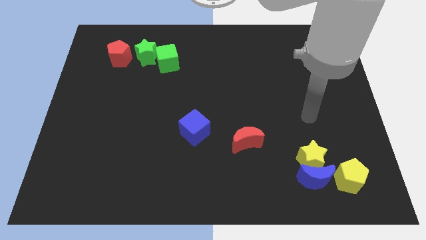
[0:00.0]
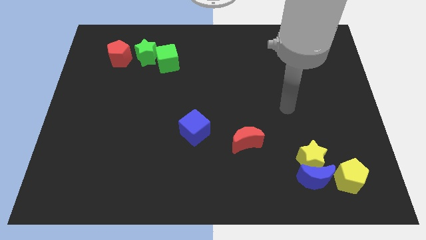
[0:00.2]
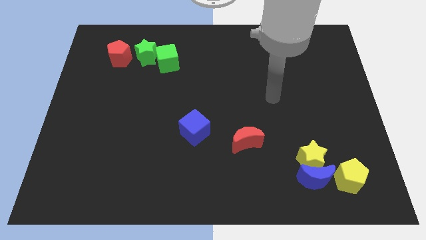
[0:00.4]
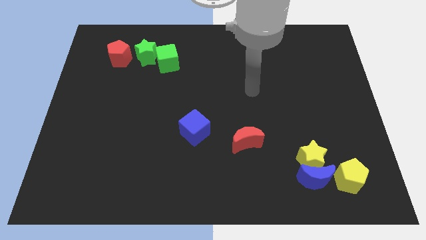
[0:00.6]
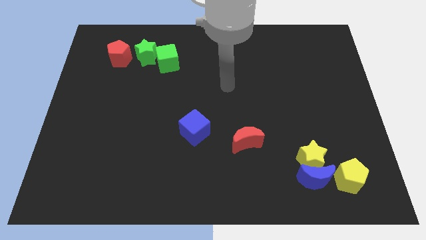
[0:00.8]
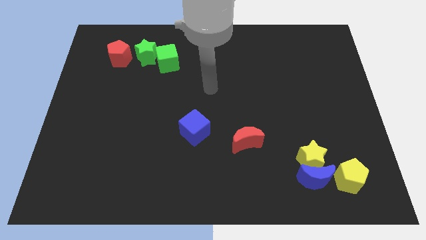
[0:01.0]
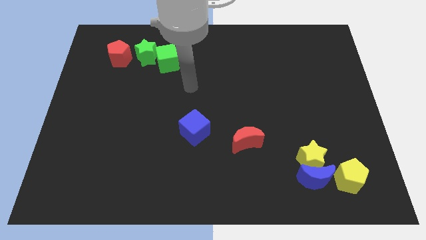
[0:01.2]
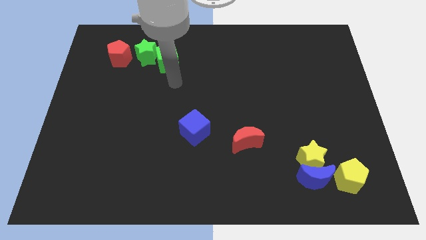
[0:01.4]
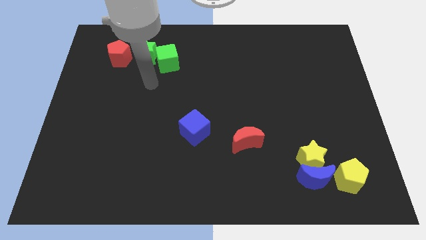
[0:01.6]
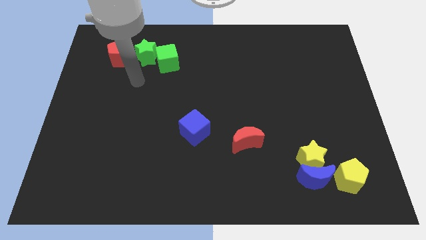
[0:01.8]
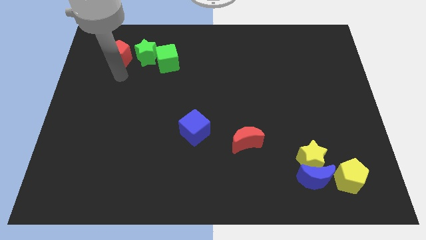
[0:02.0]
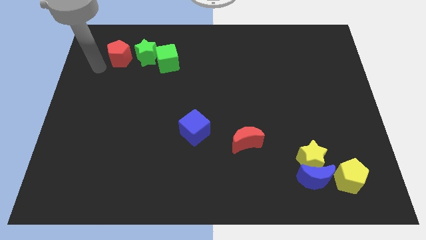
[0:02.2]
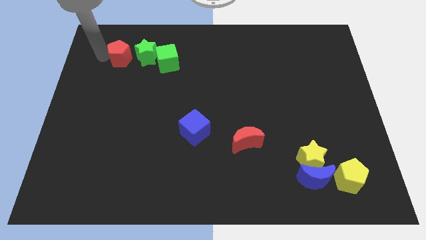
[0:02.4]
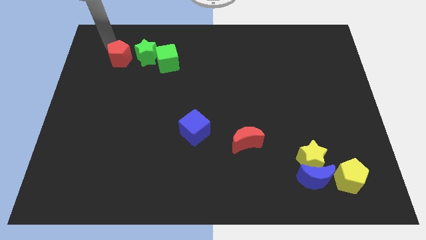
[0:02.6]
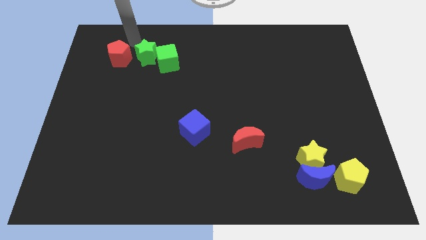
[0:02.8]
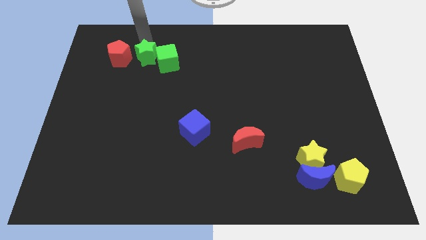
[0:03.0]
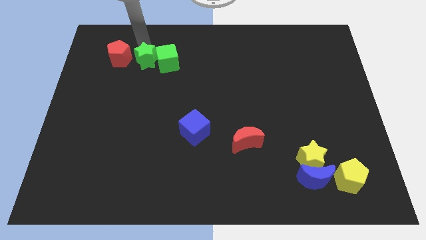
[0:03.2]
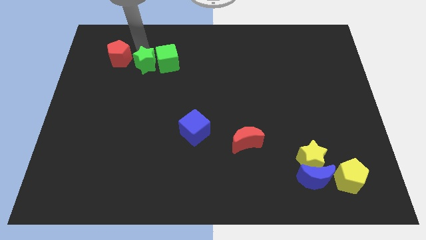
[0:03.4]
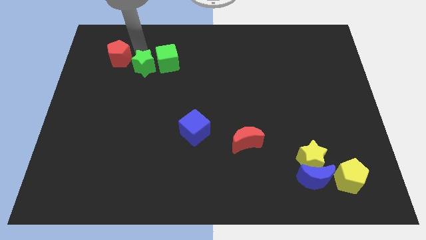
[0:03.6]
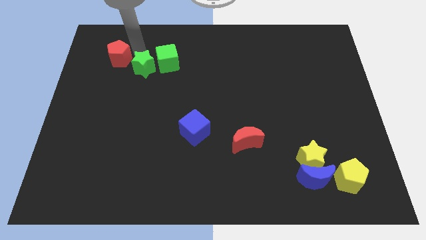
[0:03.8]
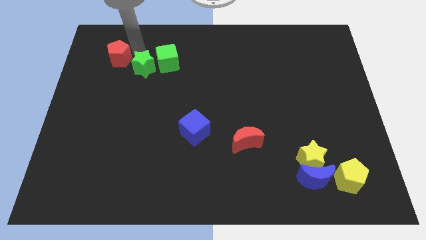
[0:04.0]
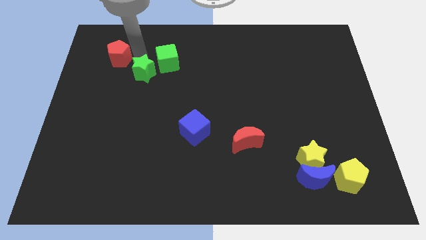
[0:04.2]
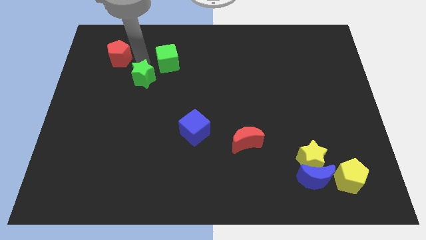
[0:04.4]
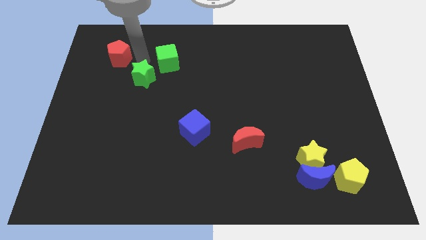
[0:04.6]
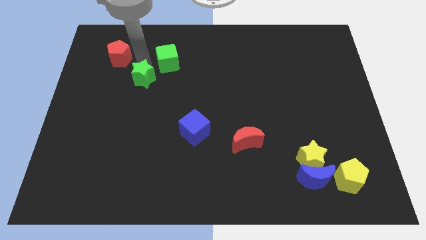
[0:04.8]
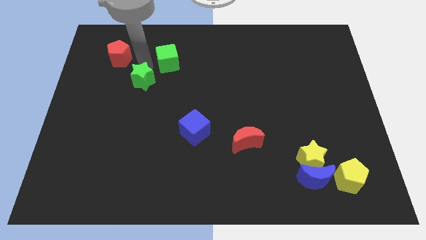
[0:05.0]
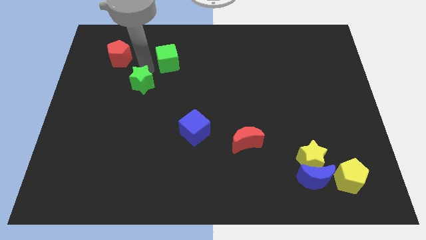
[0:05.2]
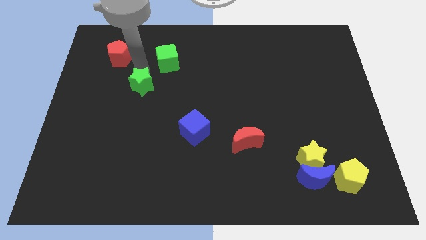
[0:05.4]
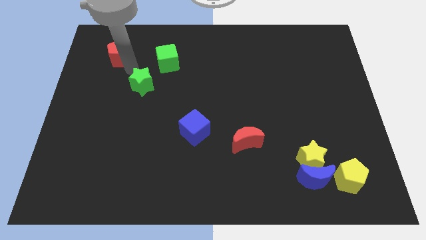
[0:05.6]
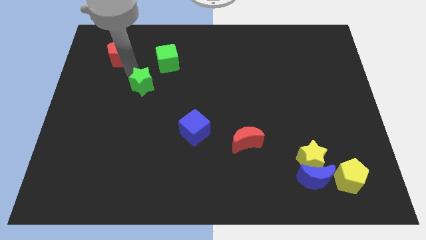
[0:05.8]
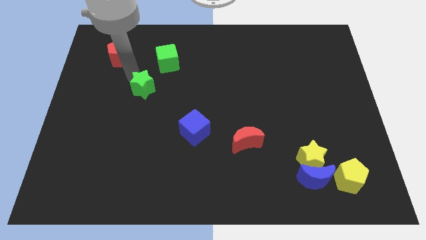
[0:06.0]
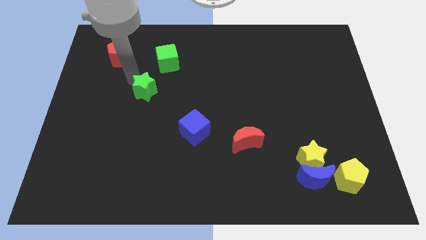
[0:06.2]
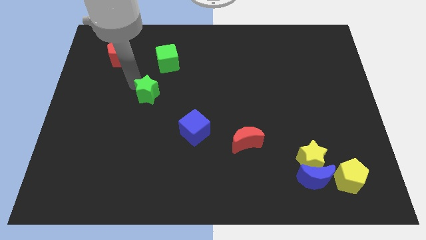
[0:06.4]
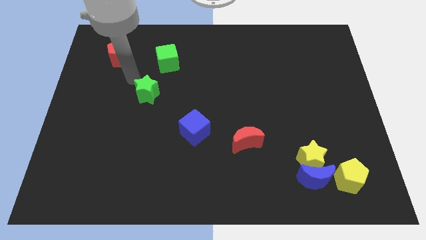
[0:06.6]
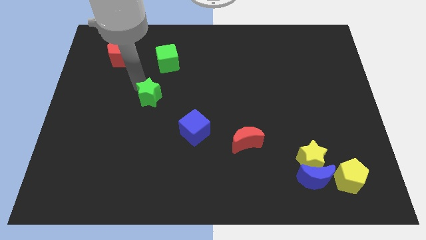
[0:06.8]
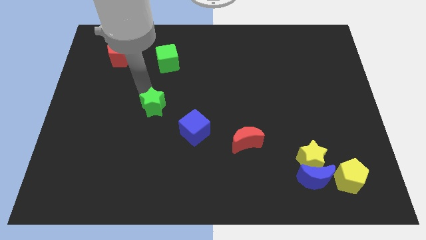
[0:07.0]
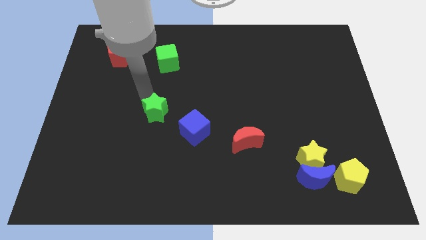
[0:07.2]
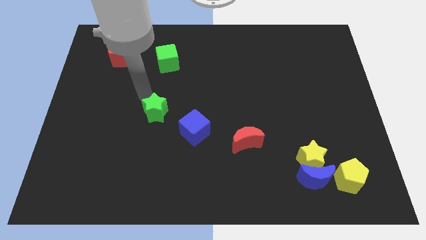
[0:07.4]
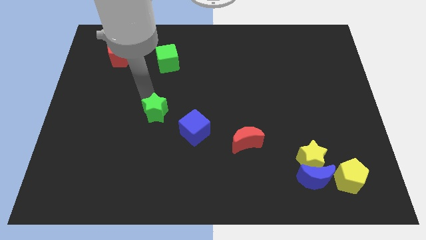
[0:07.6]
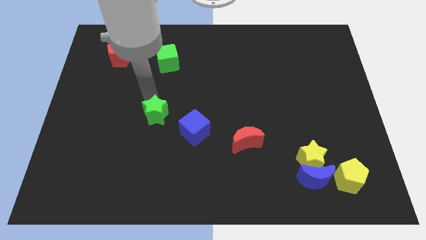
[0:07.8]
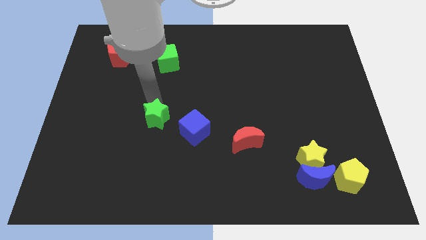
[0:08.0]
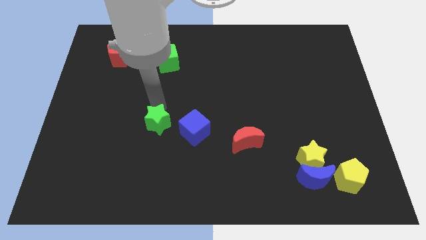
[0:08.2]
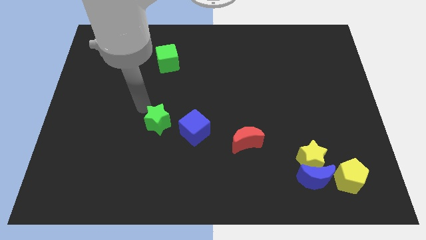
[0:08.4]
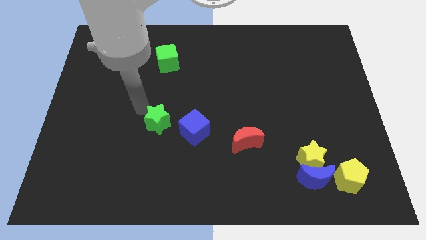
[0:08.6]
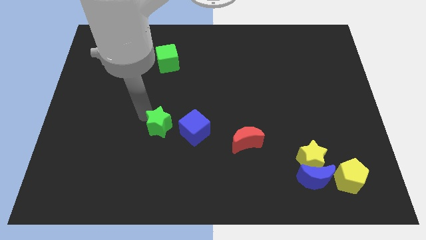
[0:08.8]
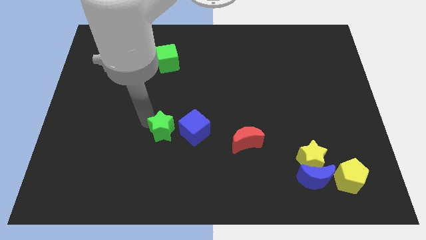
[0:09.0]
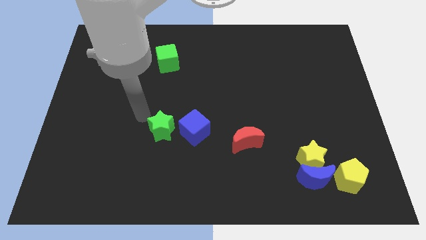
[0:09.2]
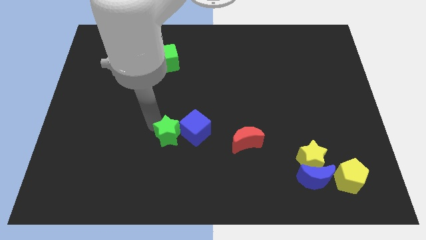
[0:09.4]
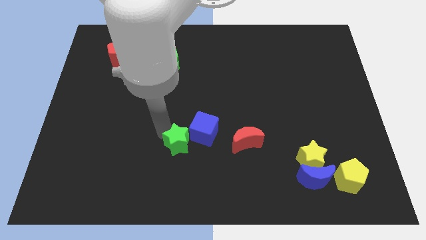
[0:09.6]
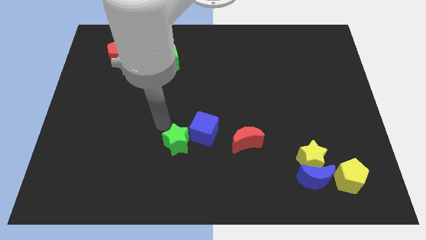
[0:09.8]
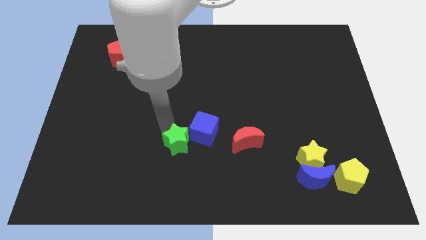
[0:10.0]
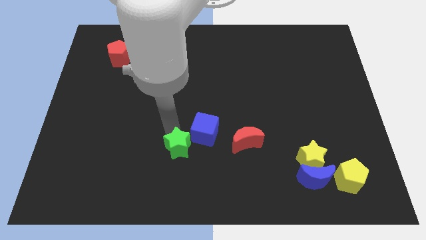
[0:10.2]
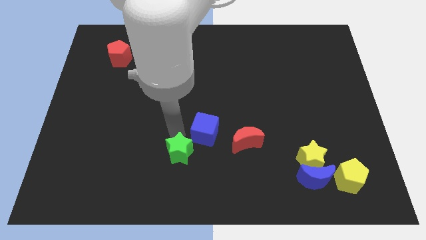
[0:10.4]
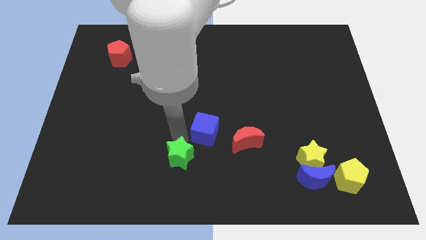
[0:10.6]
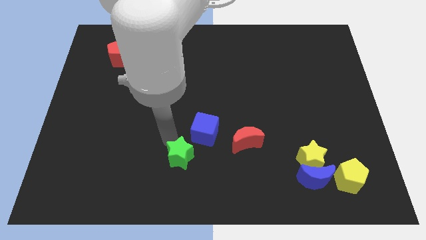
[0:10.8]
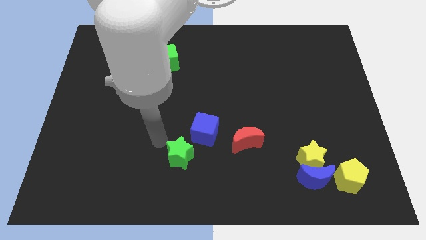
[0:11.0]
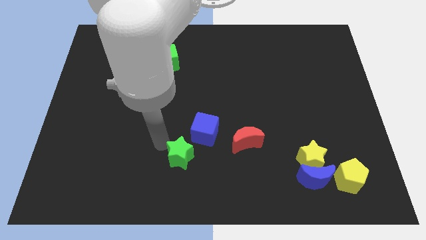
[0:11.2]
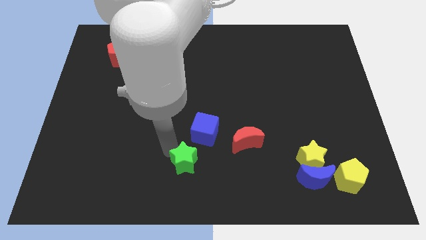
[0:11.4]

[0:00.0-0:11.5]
put the green star to the bottom

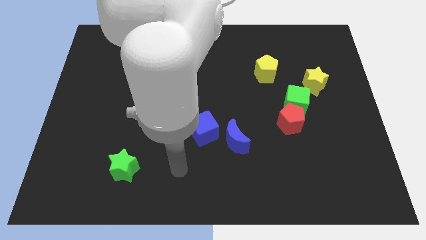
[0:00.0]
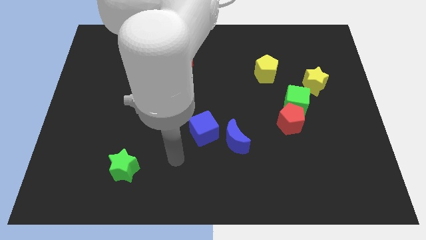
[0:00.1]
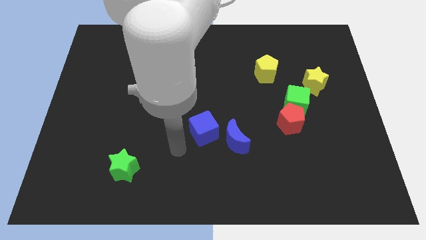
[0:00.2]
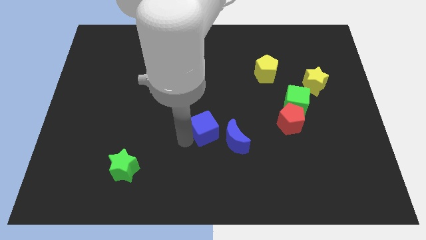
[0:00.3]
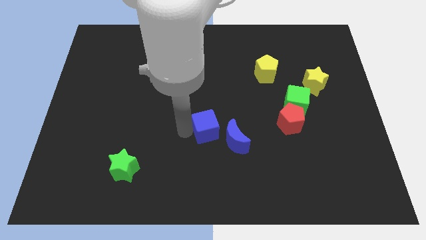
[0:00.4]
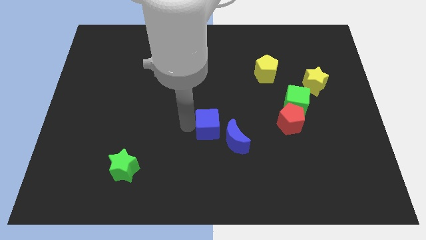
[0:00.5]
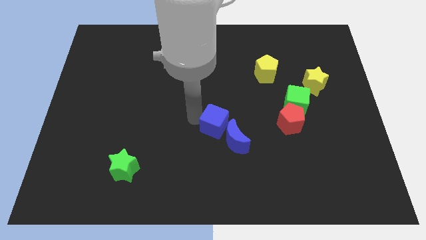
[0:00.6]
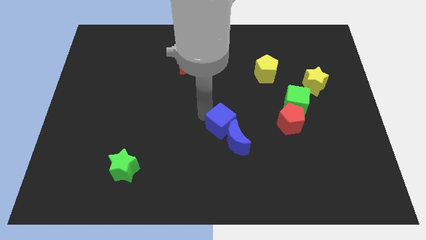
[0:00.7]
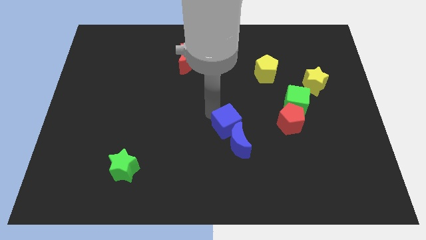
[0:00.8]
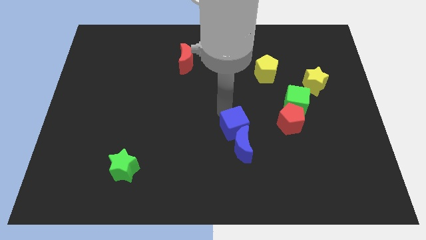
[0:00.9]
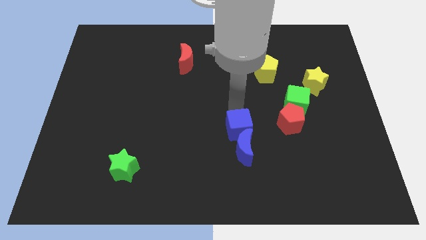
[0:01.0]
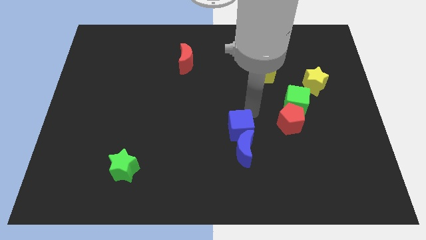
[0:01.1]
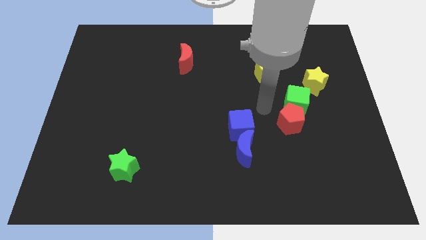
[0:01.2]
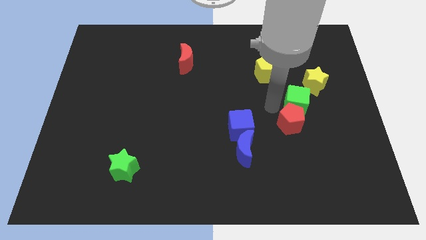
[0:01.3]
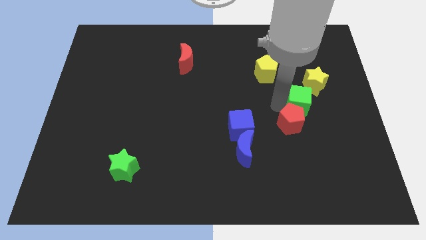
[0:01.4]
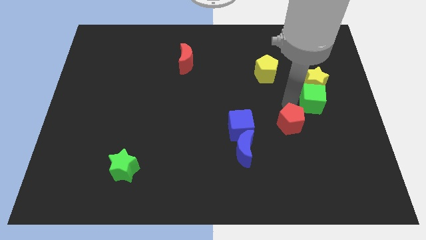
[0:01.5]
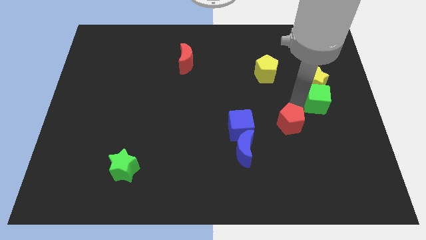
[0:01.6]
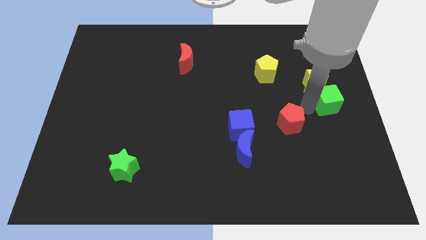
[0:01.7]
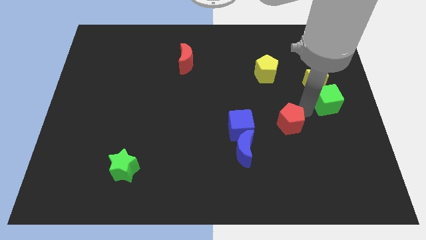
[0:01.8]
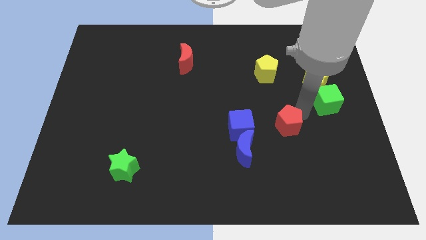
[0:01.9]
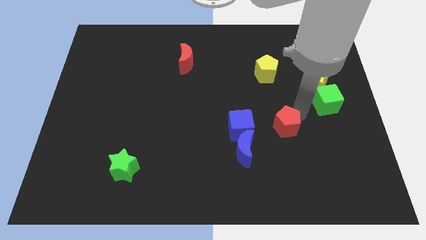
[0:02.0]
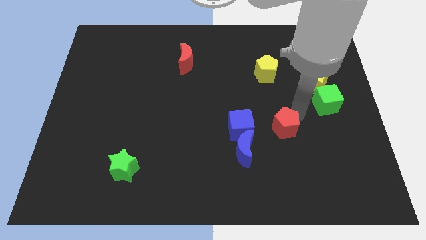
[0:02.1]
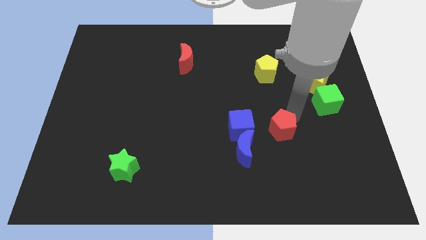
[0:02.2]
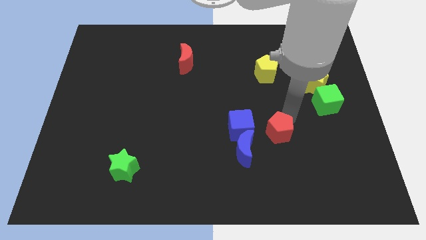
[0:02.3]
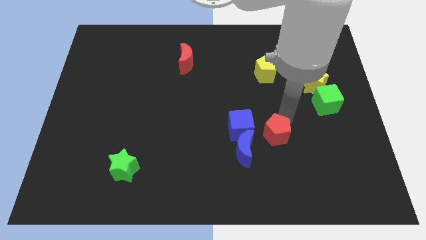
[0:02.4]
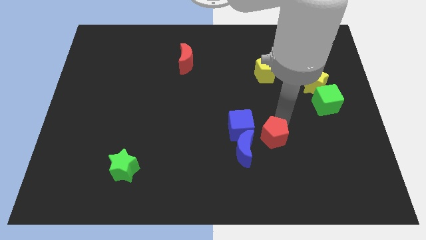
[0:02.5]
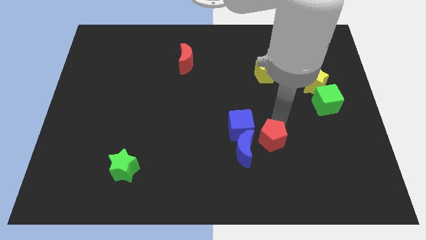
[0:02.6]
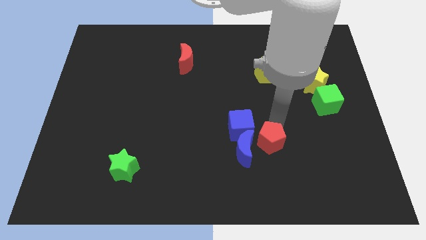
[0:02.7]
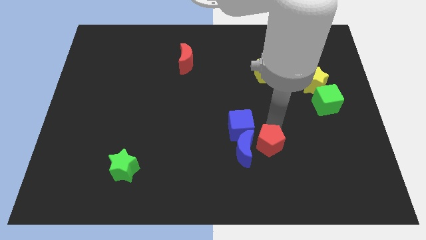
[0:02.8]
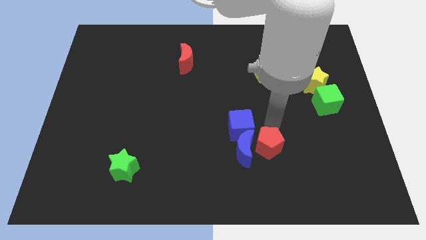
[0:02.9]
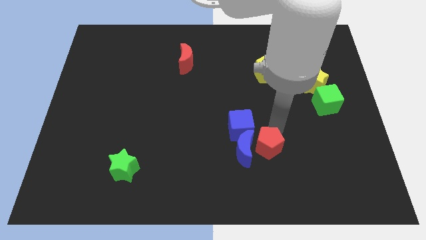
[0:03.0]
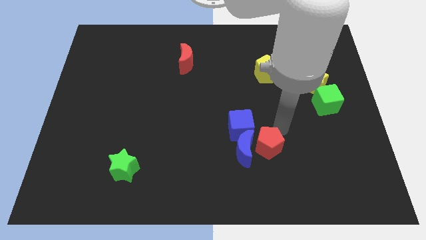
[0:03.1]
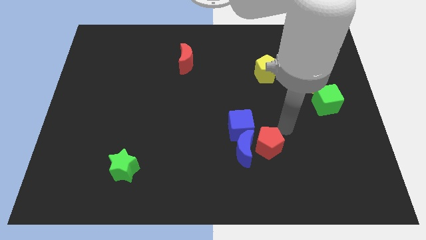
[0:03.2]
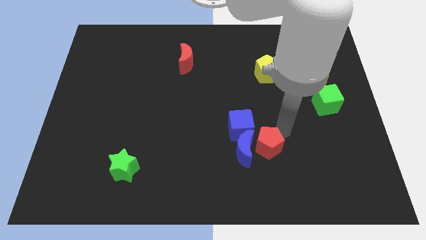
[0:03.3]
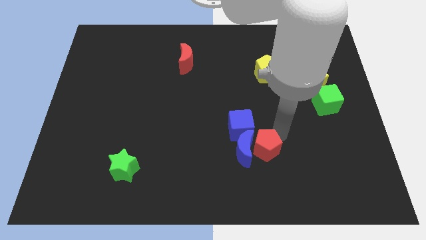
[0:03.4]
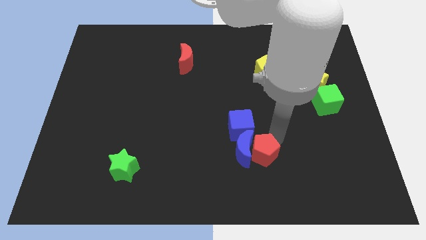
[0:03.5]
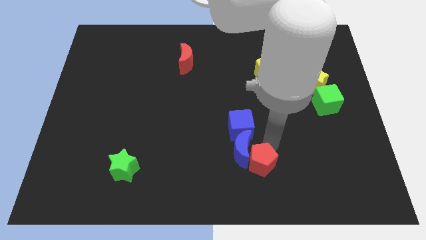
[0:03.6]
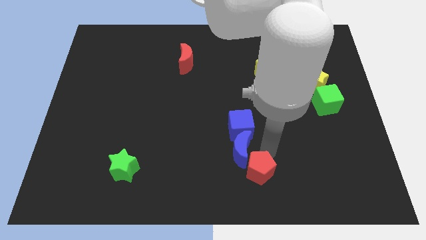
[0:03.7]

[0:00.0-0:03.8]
move the red pentagon to the bottom
